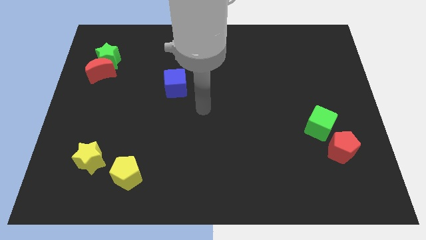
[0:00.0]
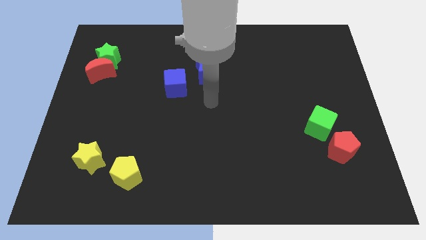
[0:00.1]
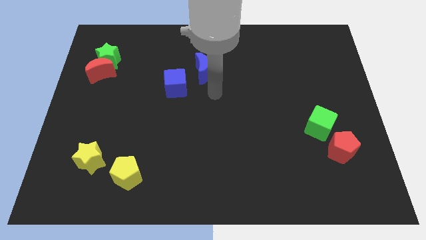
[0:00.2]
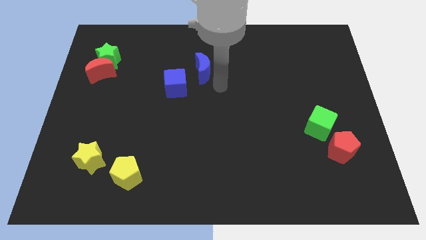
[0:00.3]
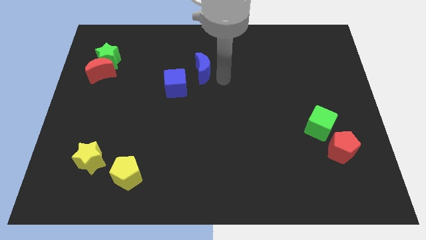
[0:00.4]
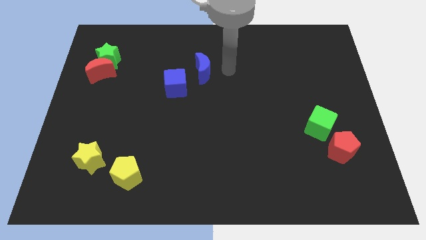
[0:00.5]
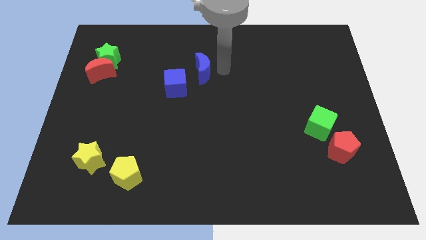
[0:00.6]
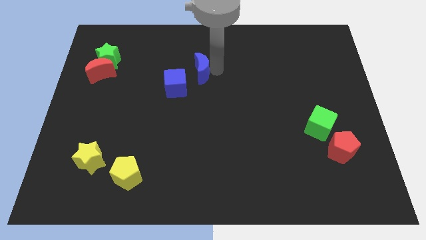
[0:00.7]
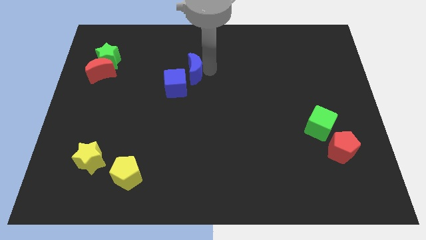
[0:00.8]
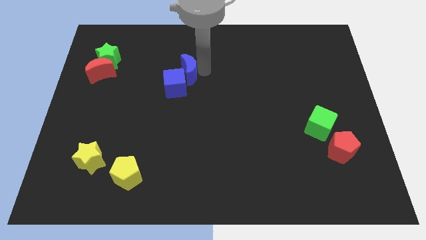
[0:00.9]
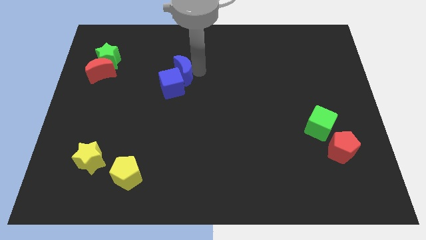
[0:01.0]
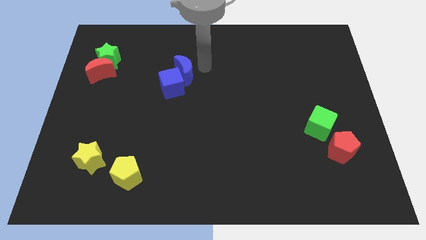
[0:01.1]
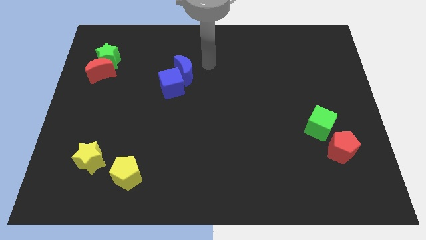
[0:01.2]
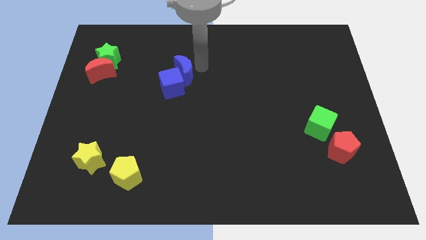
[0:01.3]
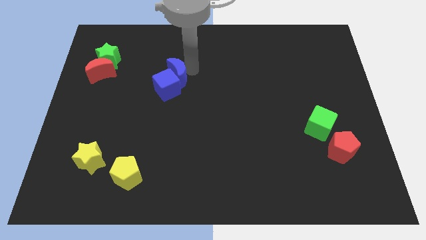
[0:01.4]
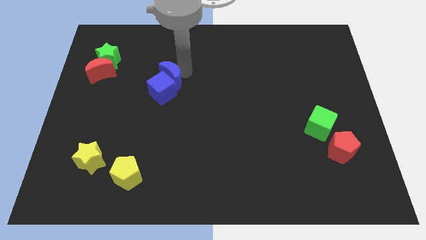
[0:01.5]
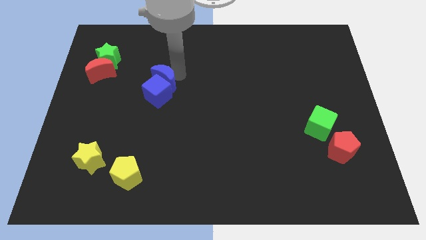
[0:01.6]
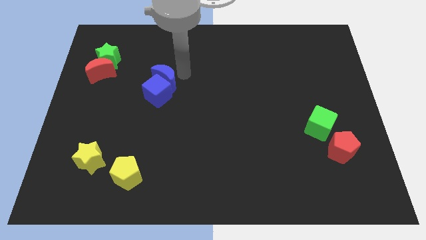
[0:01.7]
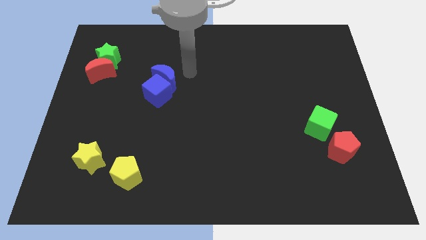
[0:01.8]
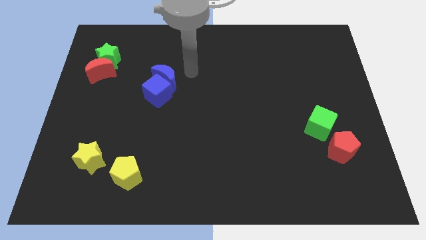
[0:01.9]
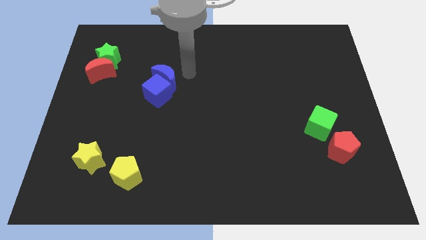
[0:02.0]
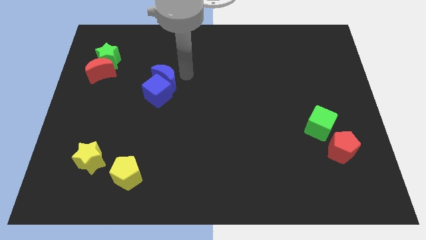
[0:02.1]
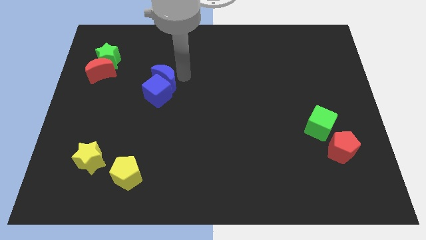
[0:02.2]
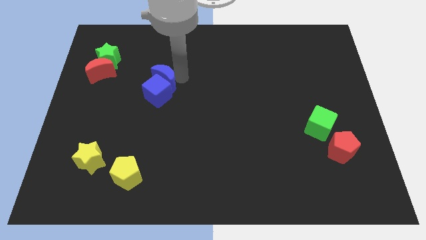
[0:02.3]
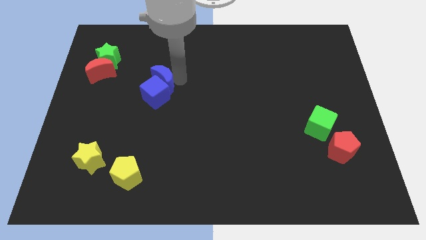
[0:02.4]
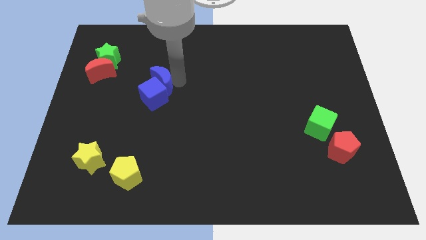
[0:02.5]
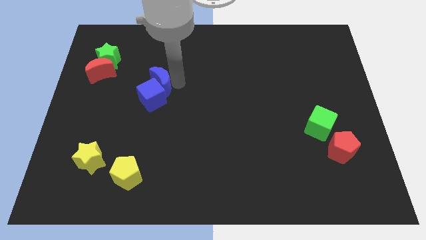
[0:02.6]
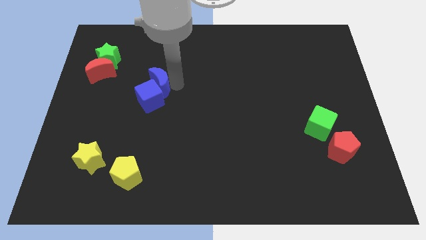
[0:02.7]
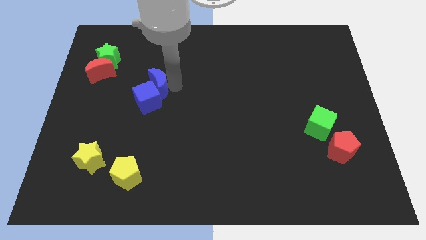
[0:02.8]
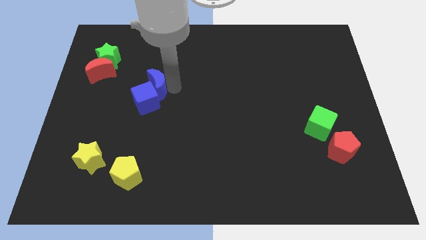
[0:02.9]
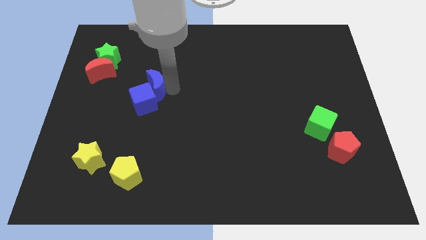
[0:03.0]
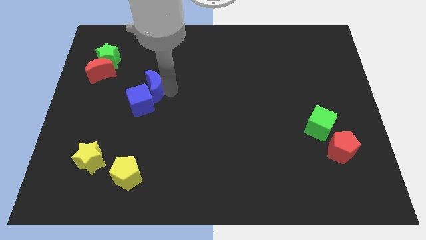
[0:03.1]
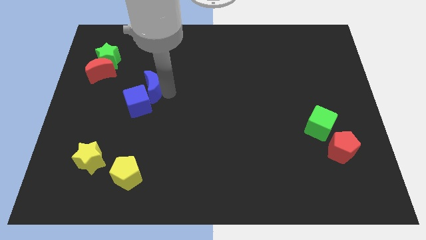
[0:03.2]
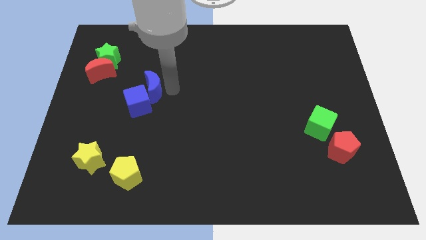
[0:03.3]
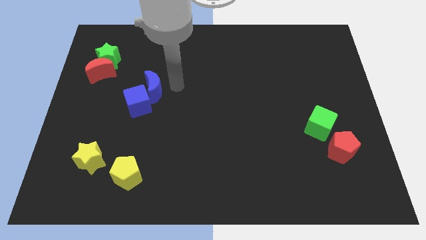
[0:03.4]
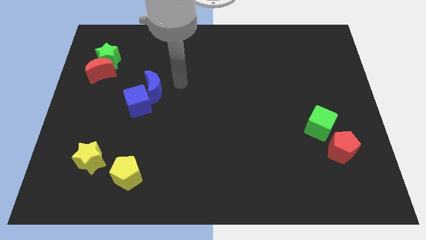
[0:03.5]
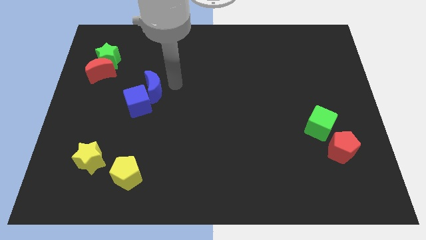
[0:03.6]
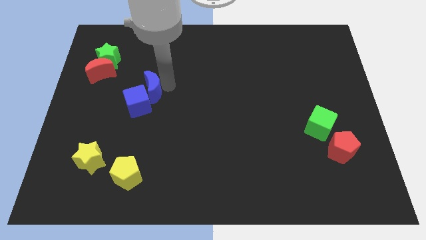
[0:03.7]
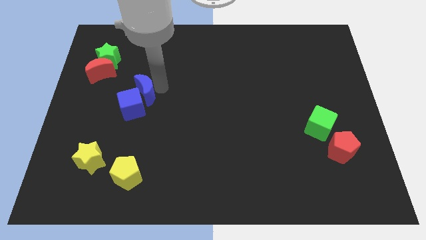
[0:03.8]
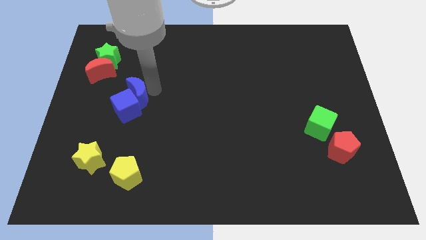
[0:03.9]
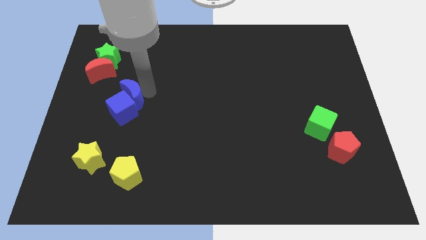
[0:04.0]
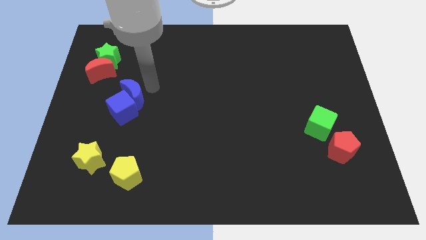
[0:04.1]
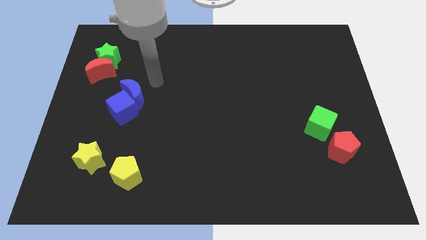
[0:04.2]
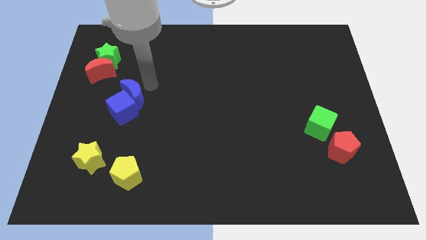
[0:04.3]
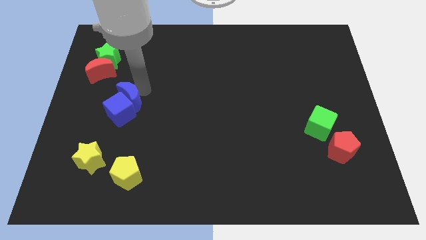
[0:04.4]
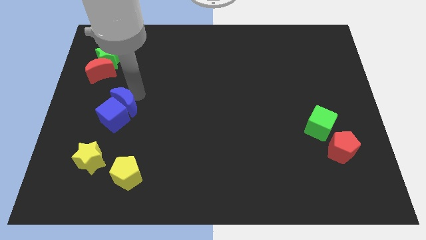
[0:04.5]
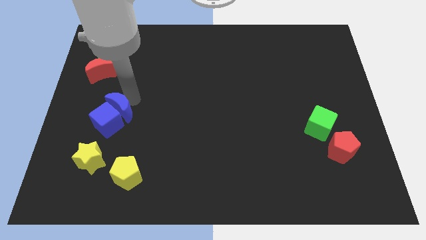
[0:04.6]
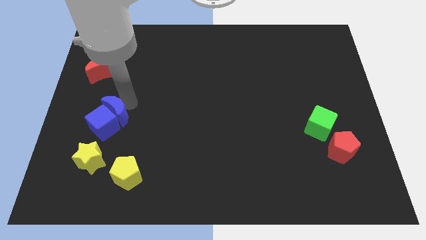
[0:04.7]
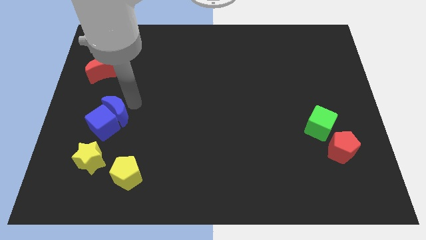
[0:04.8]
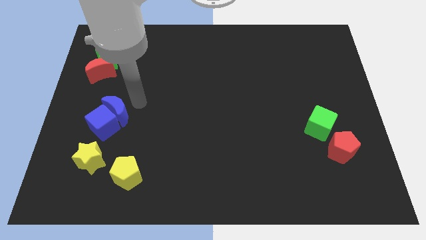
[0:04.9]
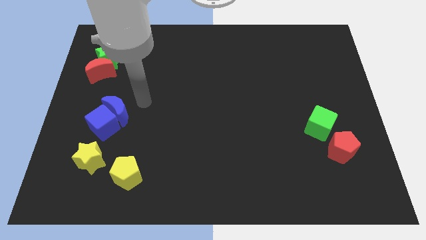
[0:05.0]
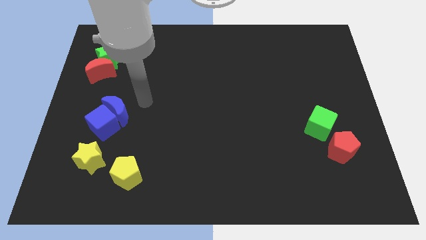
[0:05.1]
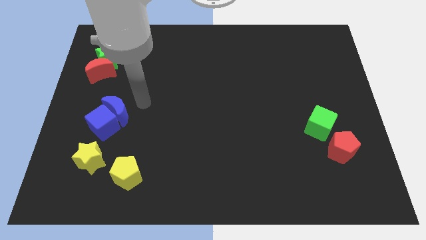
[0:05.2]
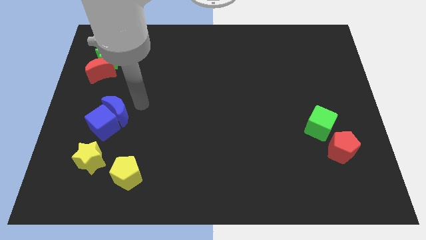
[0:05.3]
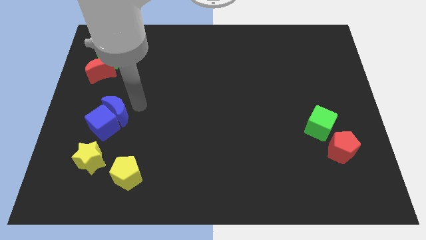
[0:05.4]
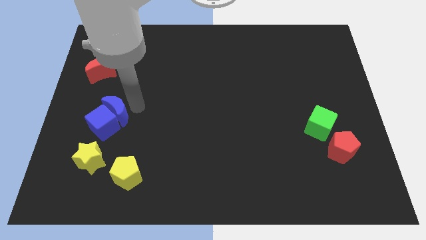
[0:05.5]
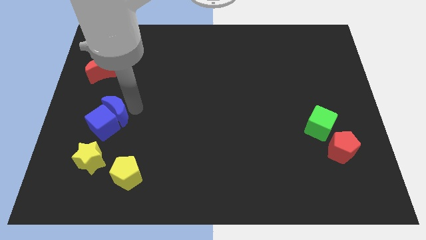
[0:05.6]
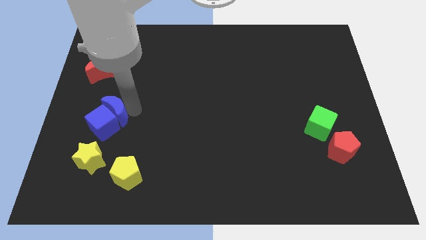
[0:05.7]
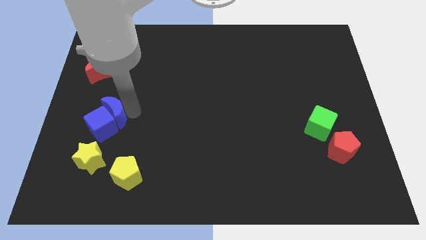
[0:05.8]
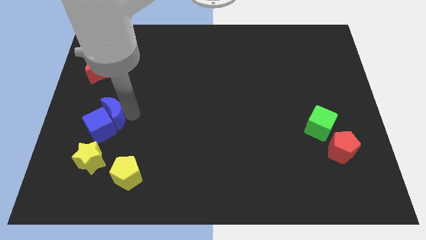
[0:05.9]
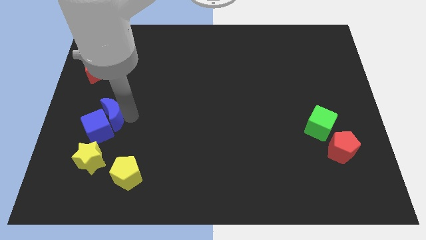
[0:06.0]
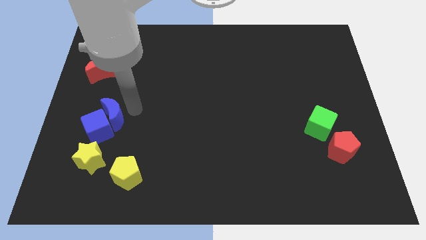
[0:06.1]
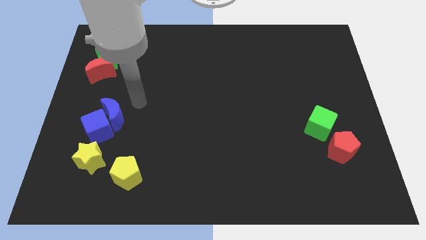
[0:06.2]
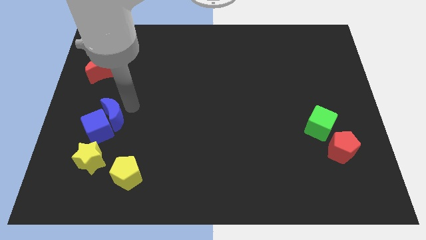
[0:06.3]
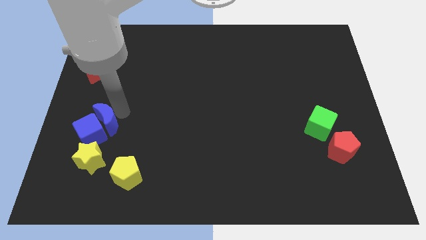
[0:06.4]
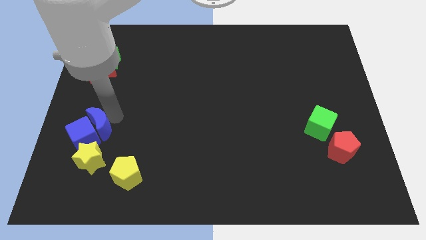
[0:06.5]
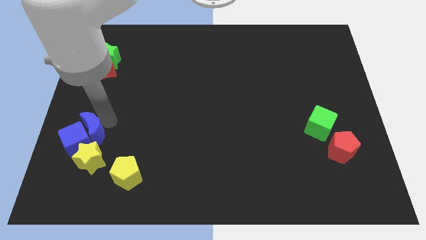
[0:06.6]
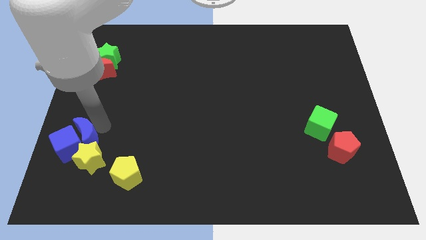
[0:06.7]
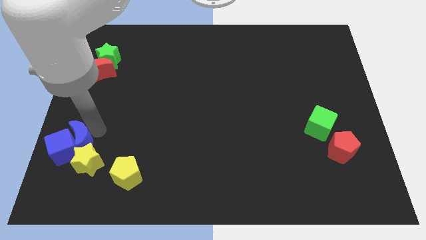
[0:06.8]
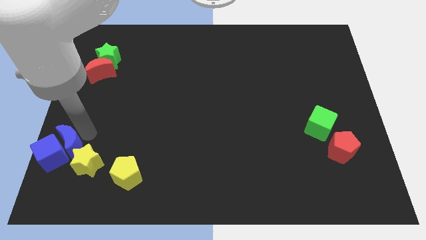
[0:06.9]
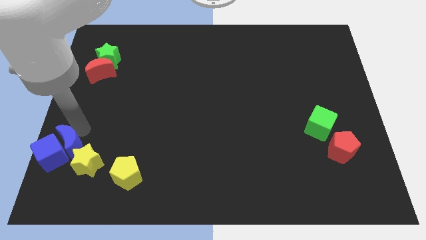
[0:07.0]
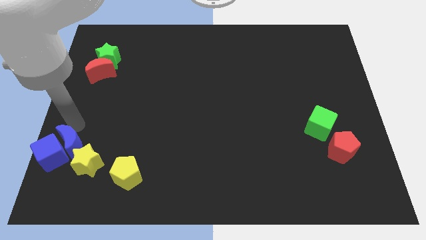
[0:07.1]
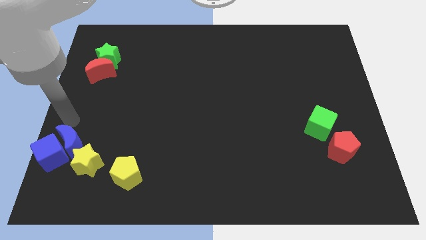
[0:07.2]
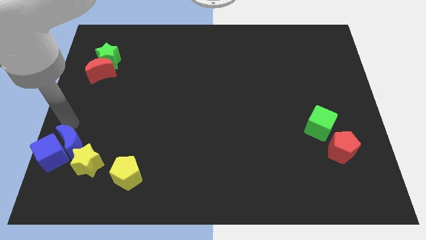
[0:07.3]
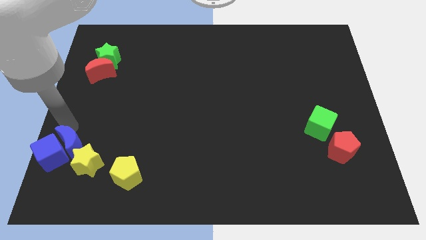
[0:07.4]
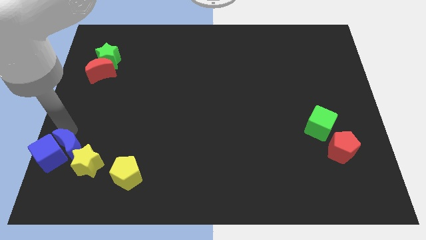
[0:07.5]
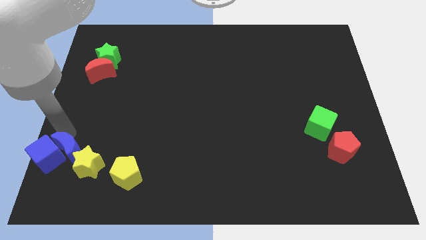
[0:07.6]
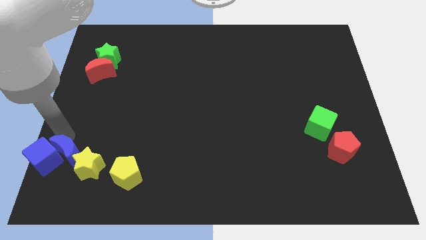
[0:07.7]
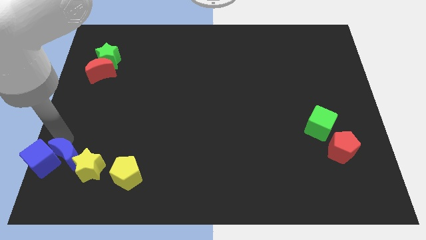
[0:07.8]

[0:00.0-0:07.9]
push the blue moon to the left side of the yellow pentagon
